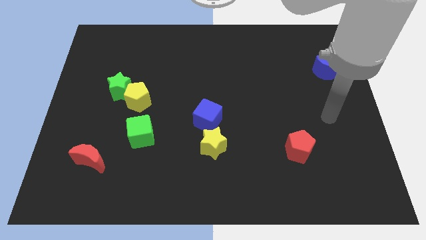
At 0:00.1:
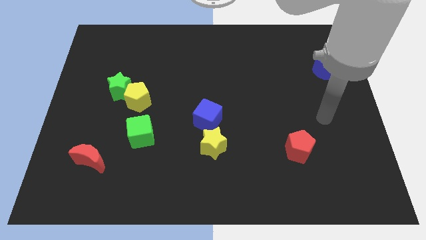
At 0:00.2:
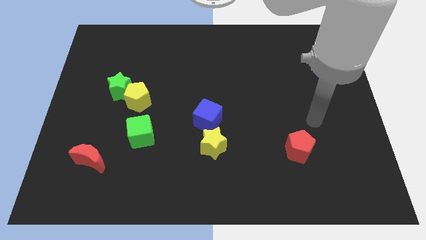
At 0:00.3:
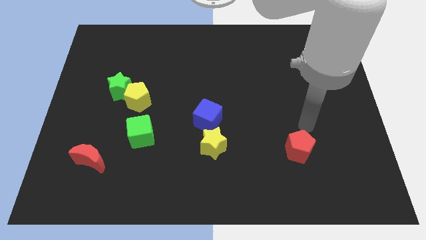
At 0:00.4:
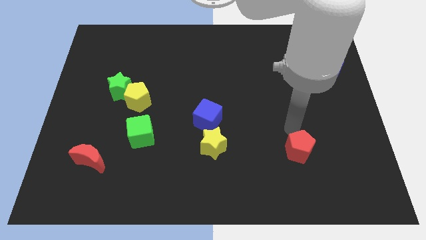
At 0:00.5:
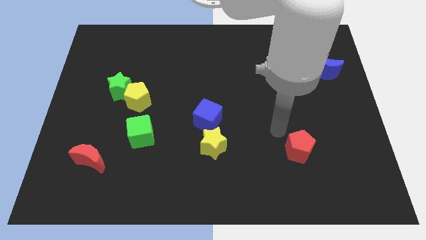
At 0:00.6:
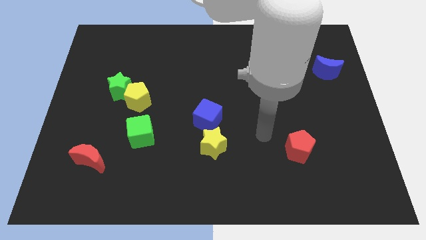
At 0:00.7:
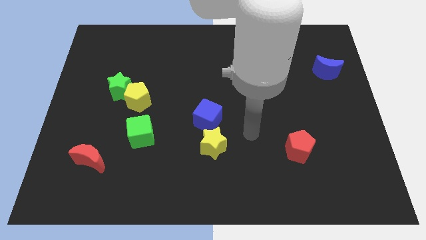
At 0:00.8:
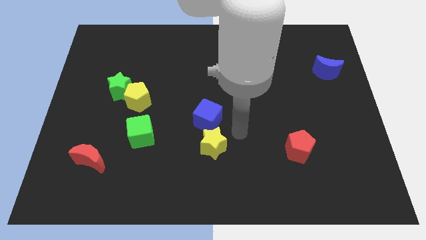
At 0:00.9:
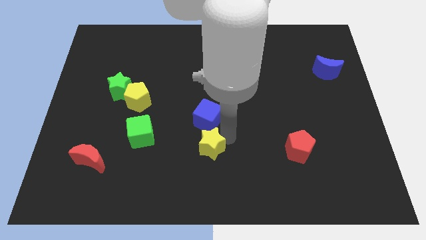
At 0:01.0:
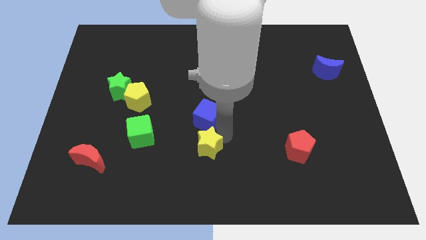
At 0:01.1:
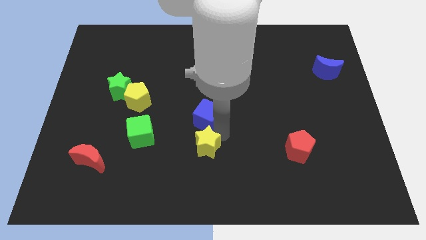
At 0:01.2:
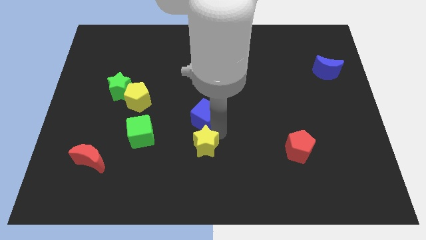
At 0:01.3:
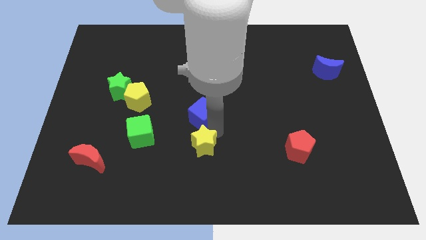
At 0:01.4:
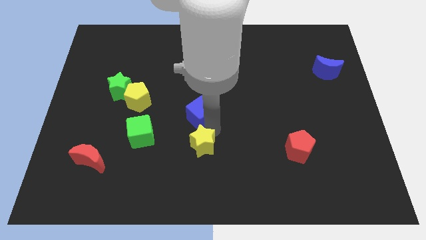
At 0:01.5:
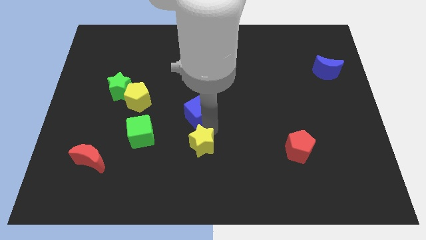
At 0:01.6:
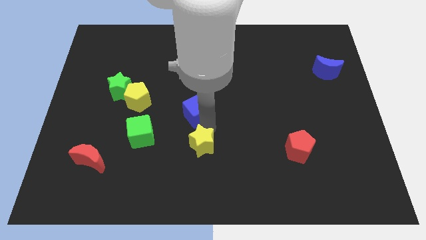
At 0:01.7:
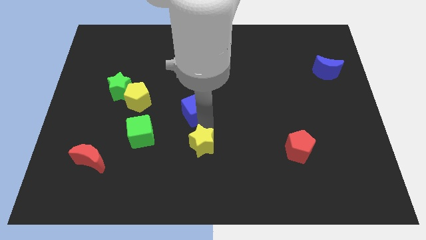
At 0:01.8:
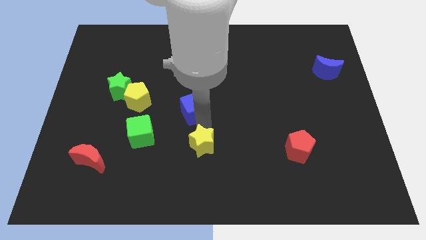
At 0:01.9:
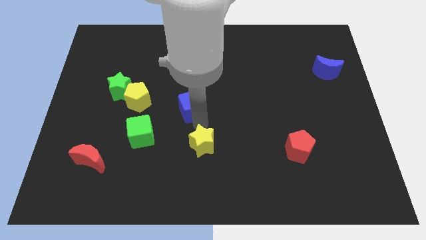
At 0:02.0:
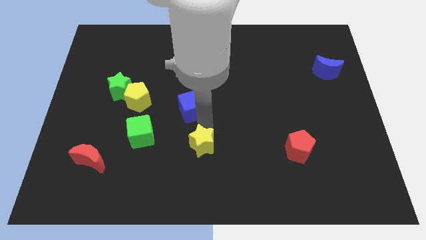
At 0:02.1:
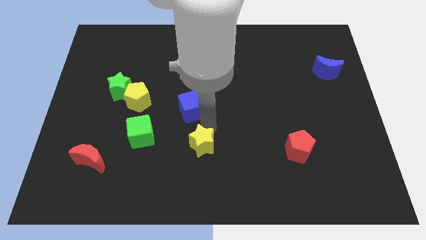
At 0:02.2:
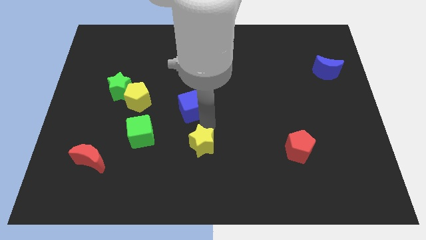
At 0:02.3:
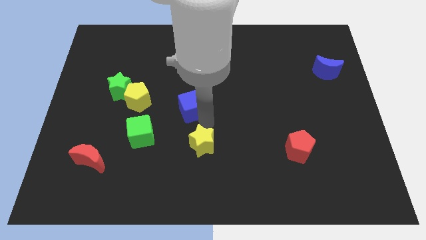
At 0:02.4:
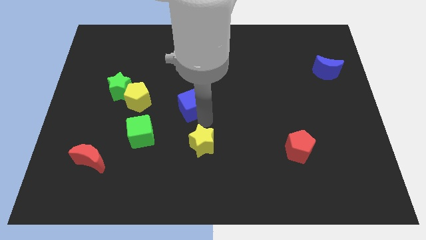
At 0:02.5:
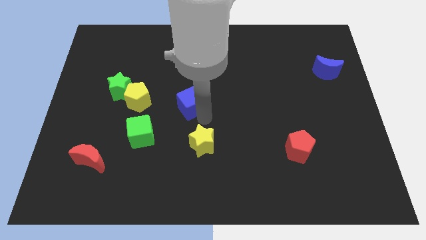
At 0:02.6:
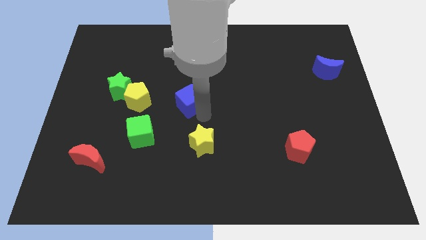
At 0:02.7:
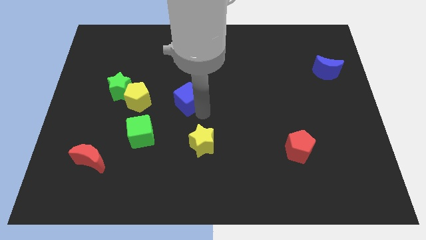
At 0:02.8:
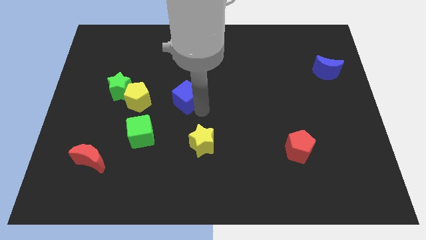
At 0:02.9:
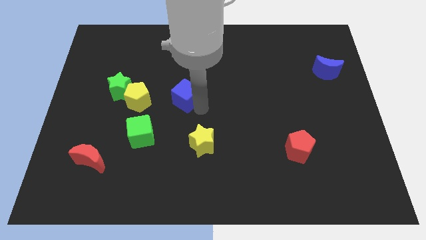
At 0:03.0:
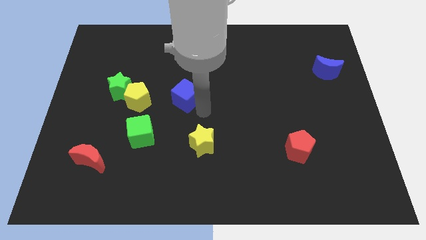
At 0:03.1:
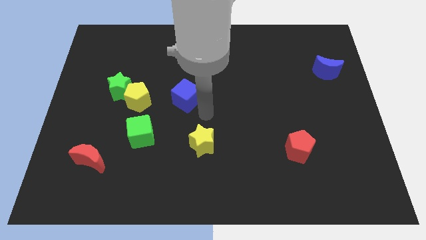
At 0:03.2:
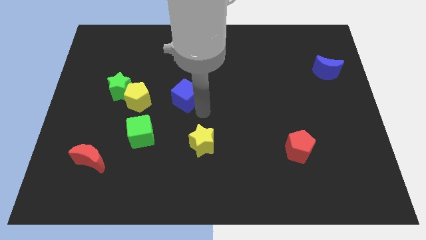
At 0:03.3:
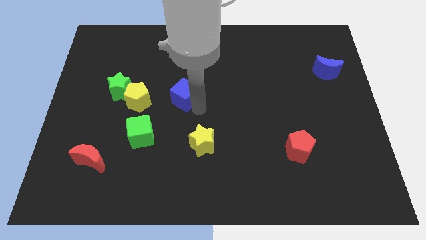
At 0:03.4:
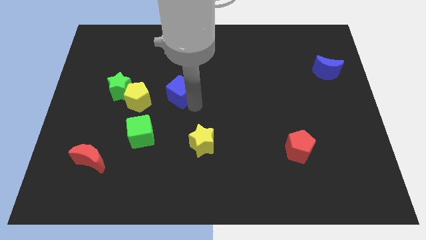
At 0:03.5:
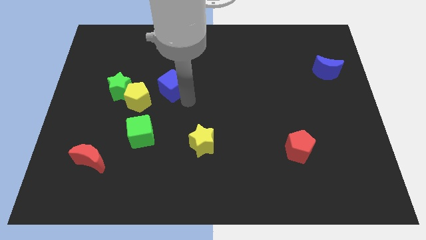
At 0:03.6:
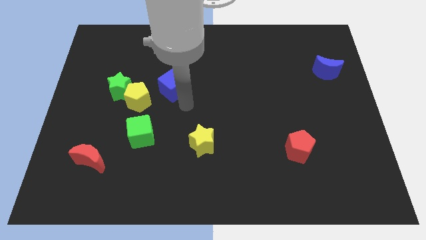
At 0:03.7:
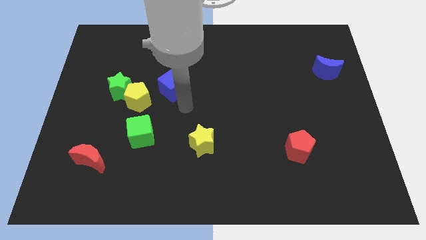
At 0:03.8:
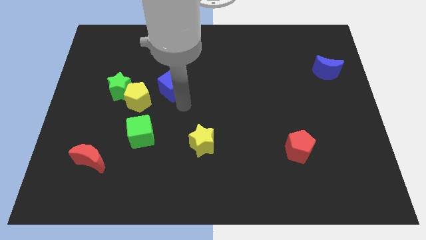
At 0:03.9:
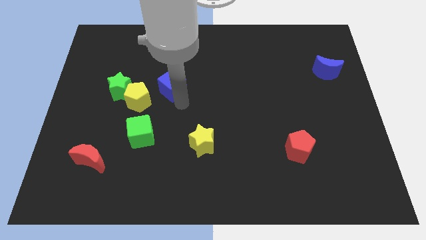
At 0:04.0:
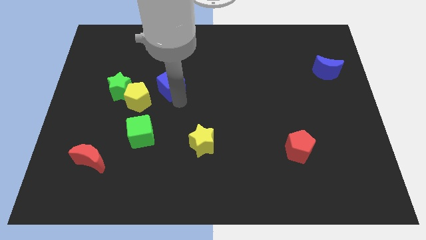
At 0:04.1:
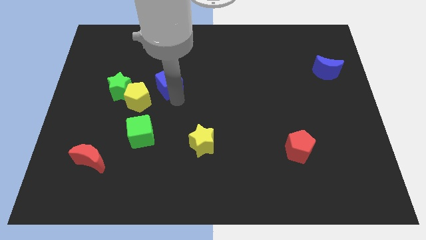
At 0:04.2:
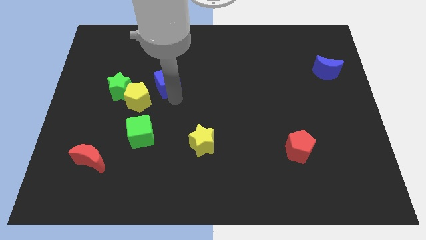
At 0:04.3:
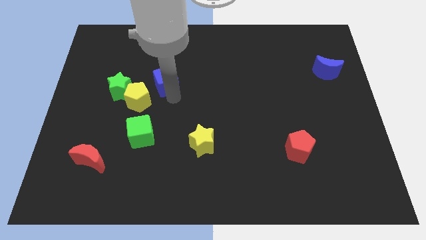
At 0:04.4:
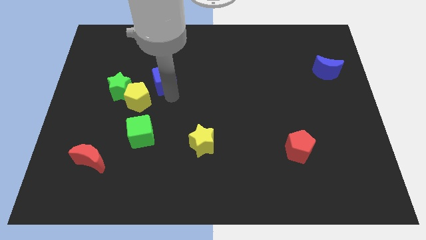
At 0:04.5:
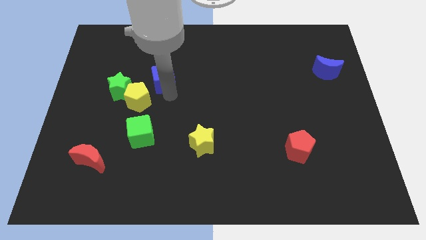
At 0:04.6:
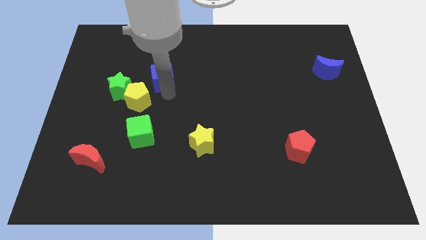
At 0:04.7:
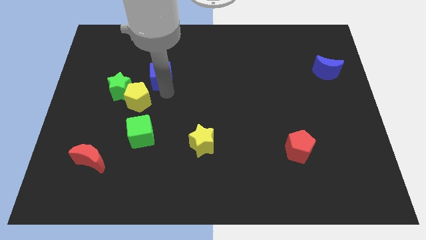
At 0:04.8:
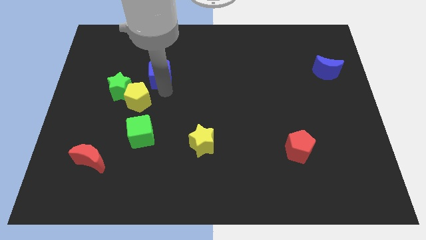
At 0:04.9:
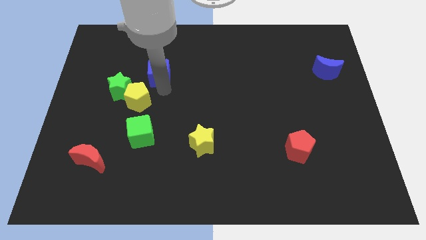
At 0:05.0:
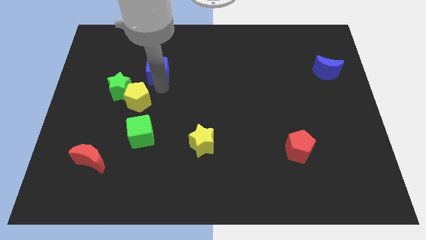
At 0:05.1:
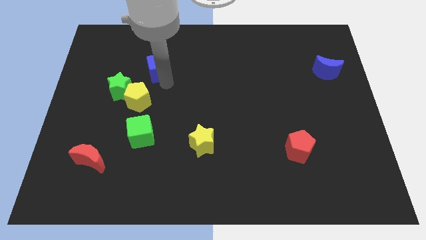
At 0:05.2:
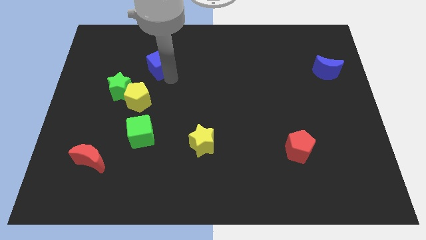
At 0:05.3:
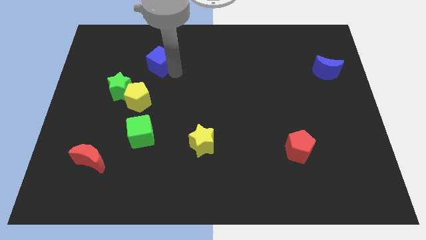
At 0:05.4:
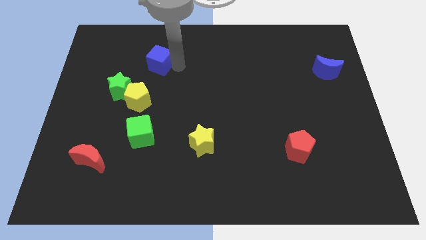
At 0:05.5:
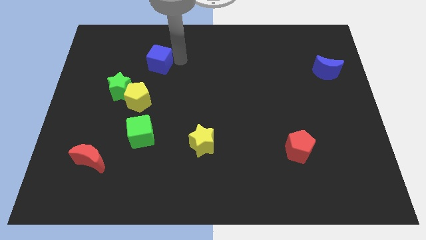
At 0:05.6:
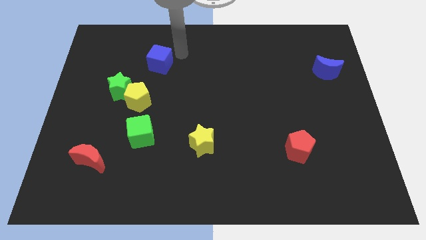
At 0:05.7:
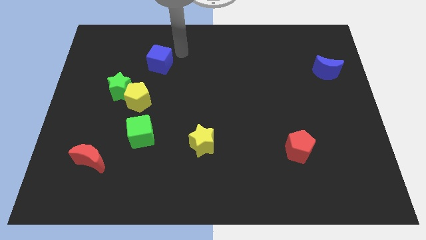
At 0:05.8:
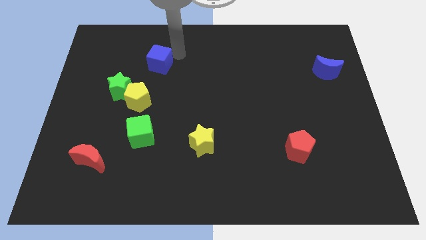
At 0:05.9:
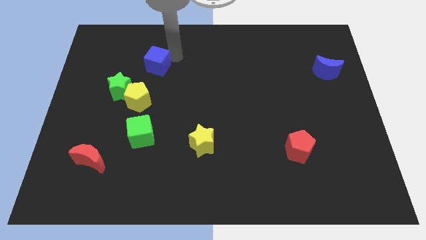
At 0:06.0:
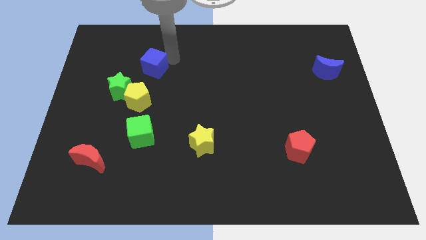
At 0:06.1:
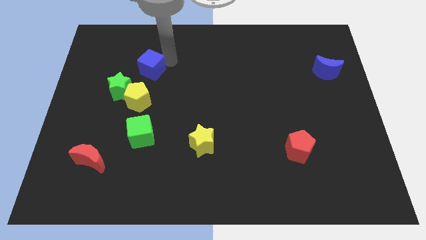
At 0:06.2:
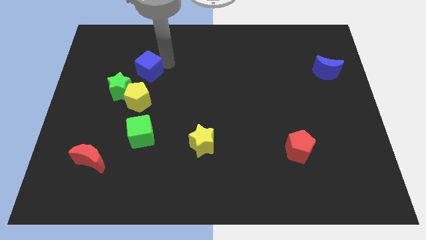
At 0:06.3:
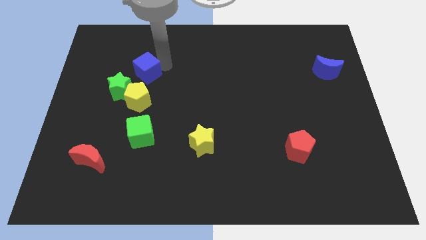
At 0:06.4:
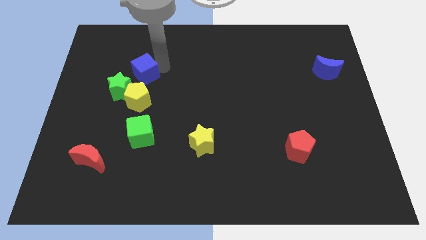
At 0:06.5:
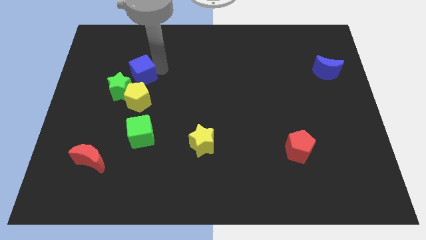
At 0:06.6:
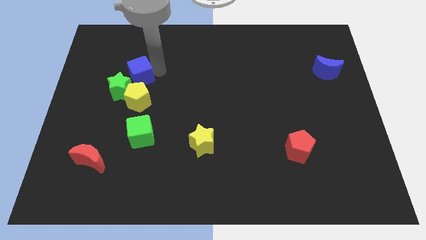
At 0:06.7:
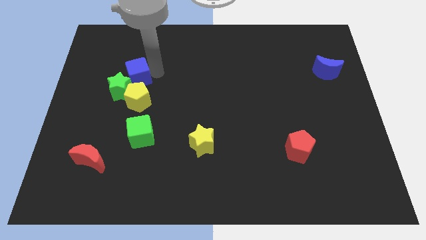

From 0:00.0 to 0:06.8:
put the blue cube to the top left of the yellow pentagon

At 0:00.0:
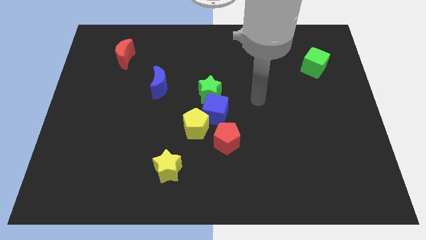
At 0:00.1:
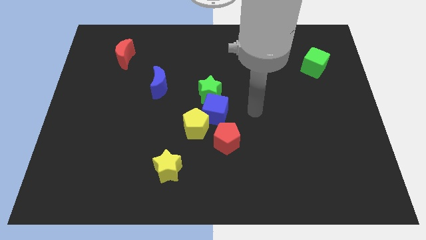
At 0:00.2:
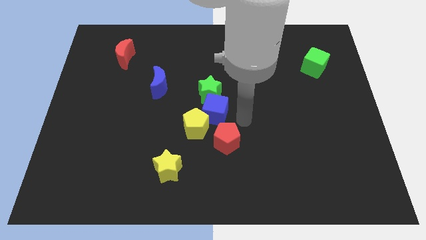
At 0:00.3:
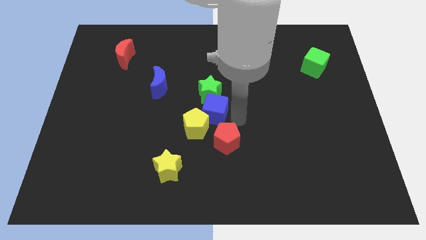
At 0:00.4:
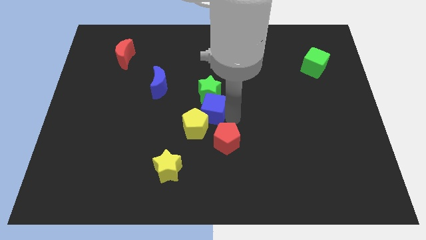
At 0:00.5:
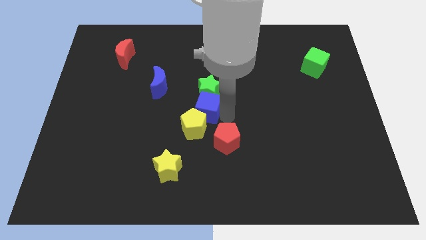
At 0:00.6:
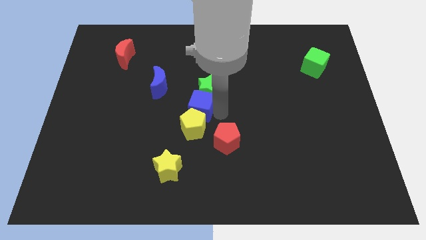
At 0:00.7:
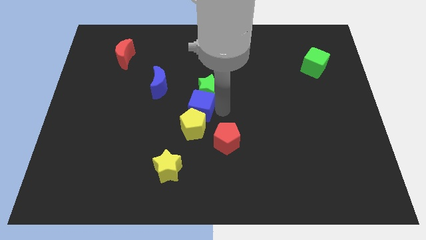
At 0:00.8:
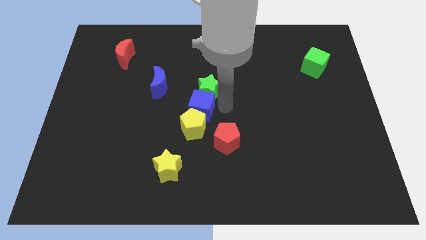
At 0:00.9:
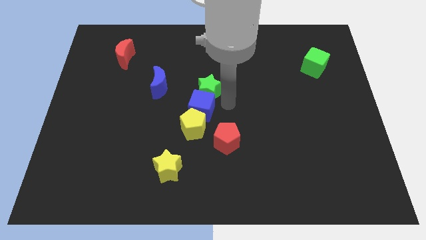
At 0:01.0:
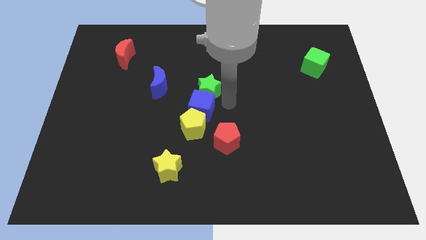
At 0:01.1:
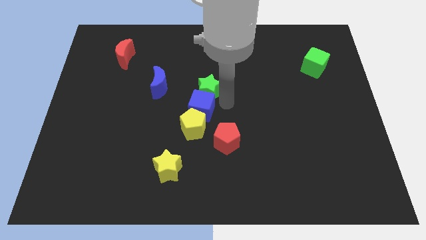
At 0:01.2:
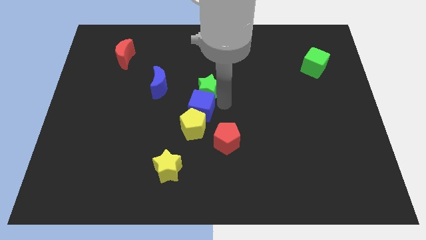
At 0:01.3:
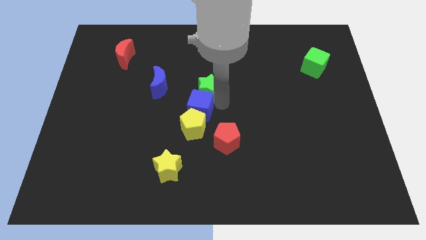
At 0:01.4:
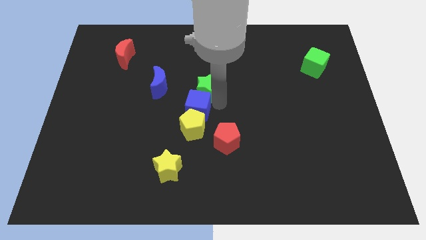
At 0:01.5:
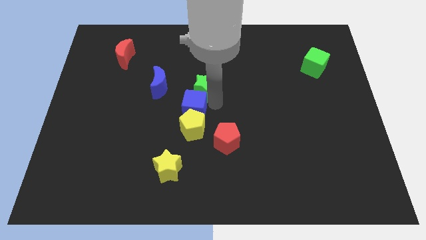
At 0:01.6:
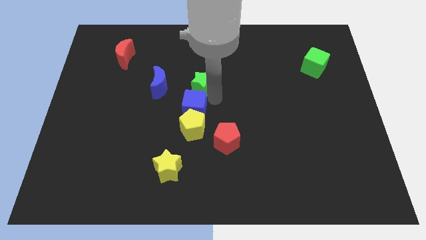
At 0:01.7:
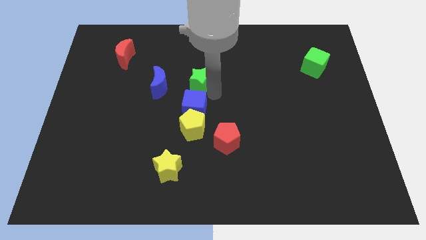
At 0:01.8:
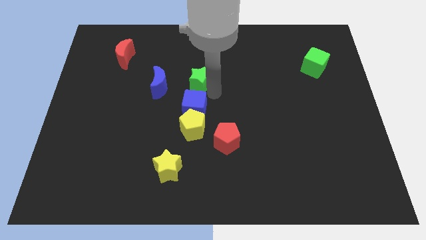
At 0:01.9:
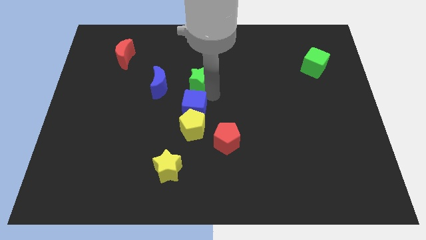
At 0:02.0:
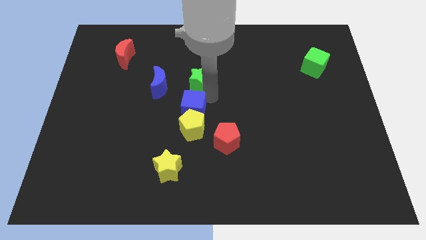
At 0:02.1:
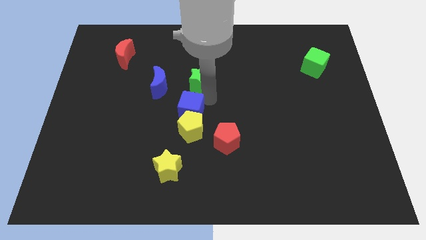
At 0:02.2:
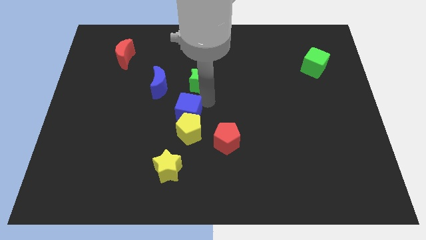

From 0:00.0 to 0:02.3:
push the blue cube to the top side of the yellow star
